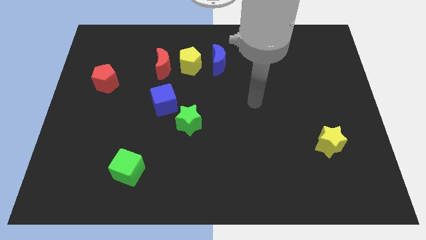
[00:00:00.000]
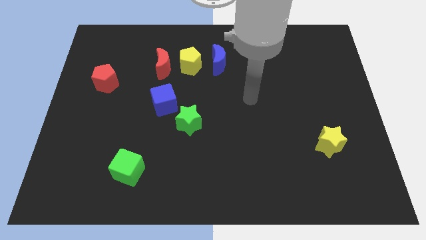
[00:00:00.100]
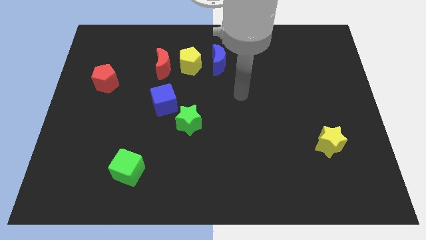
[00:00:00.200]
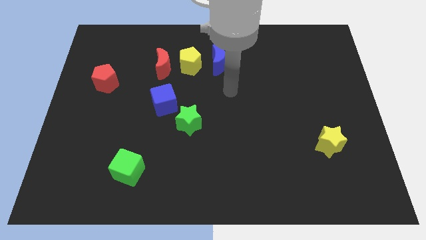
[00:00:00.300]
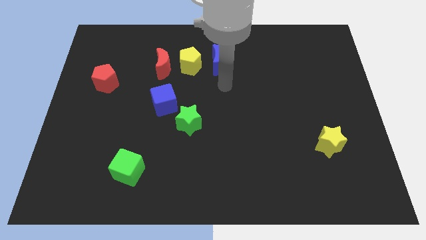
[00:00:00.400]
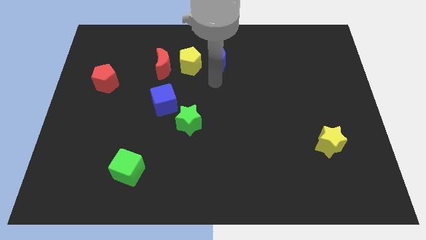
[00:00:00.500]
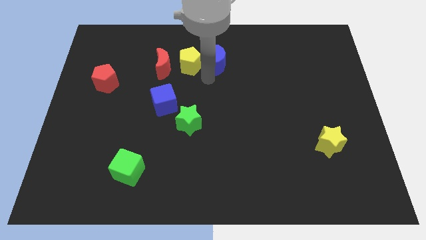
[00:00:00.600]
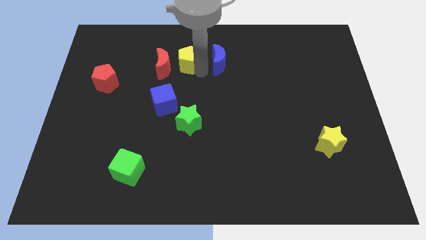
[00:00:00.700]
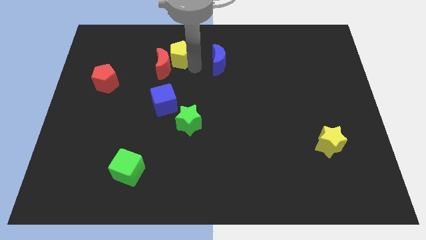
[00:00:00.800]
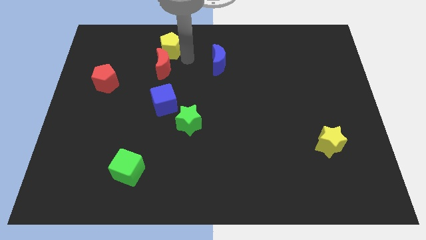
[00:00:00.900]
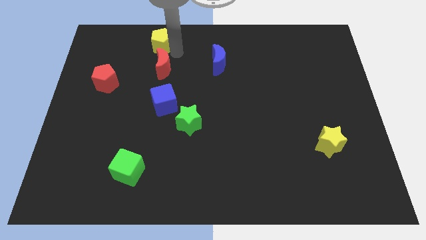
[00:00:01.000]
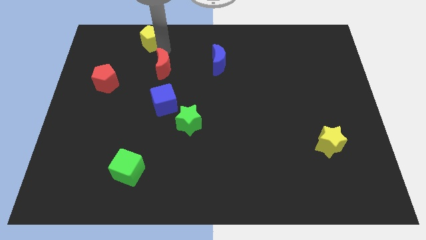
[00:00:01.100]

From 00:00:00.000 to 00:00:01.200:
pull the red moon apart from the yellow pentagon

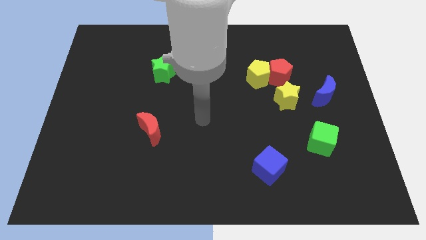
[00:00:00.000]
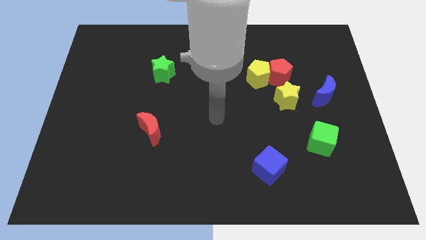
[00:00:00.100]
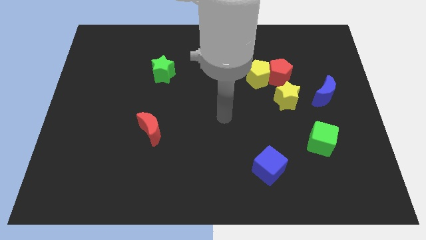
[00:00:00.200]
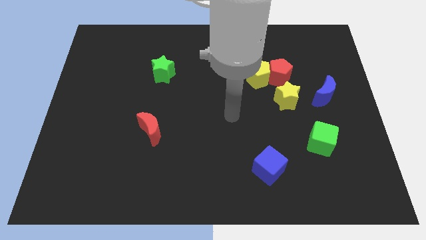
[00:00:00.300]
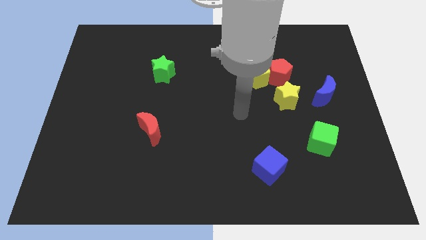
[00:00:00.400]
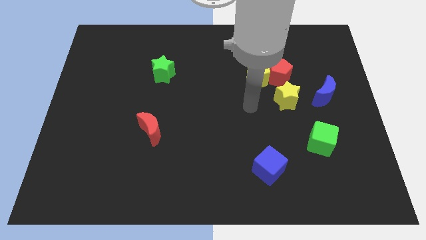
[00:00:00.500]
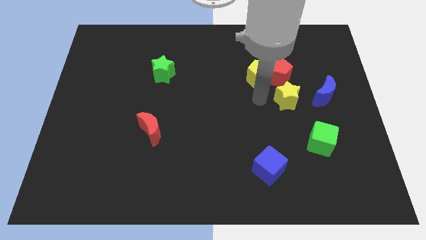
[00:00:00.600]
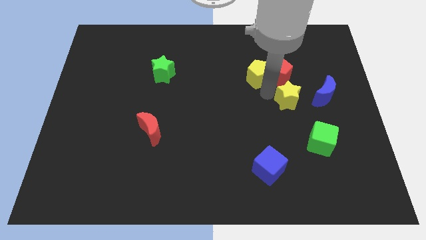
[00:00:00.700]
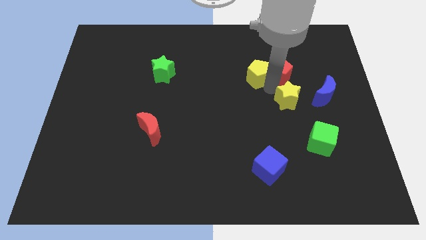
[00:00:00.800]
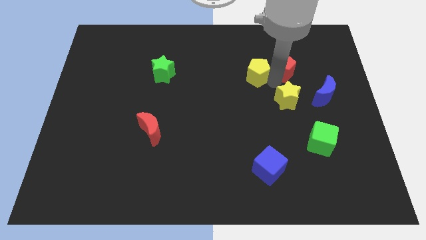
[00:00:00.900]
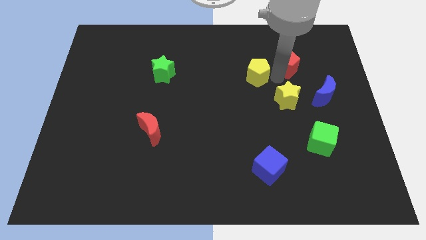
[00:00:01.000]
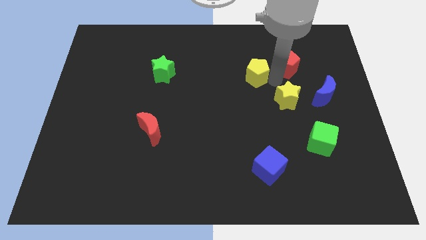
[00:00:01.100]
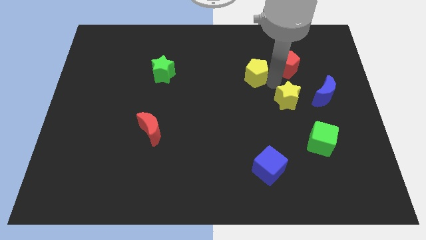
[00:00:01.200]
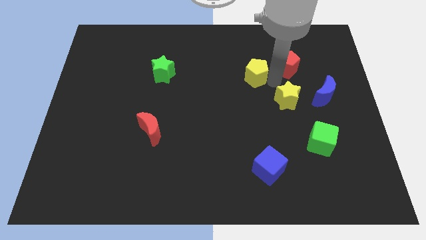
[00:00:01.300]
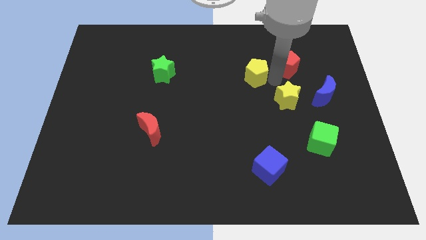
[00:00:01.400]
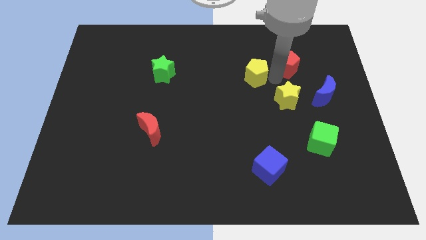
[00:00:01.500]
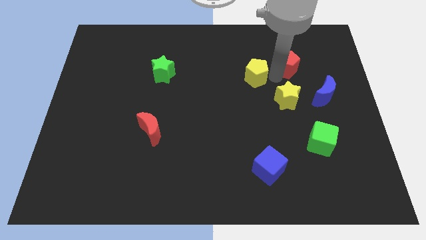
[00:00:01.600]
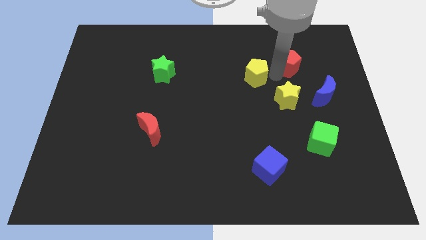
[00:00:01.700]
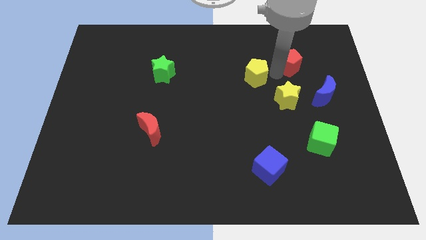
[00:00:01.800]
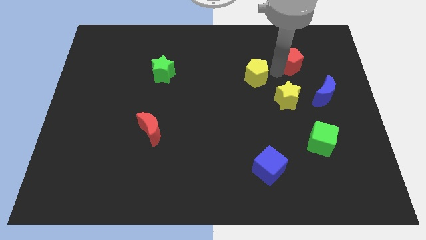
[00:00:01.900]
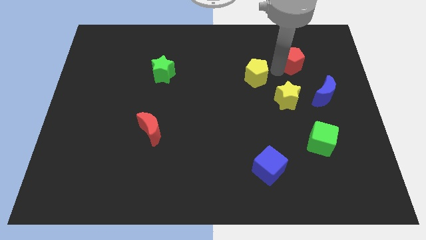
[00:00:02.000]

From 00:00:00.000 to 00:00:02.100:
pull the red pentagon apart from the yellow pentagon and yellow star

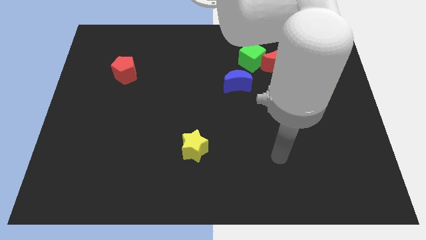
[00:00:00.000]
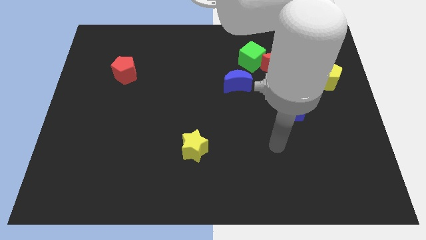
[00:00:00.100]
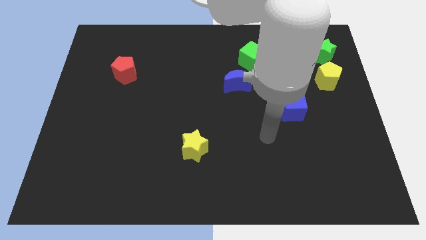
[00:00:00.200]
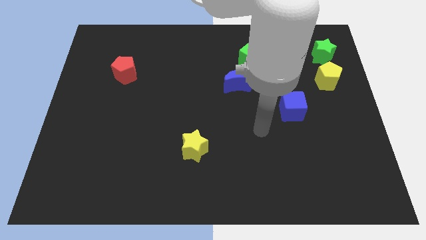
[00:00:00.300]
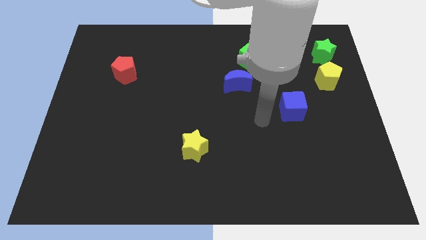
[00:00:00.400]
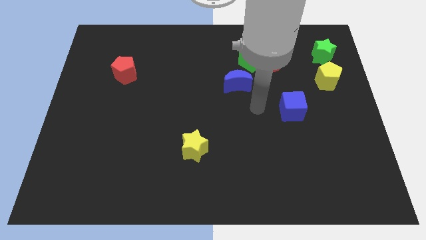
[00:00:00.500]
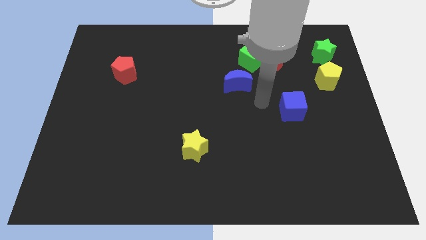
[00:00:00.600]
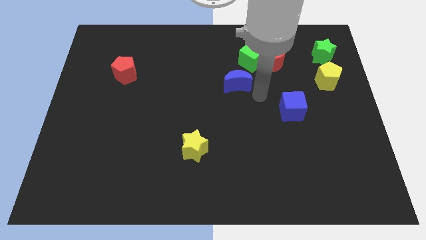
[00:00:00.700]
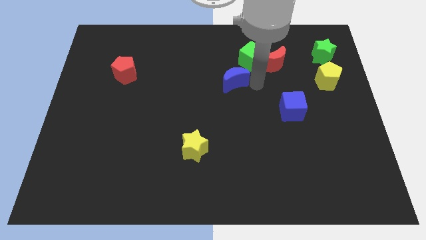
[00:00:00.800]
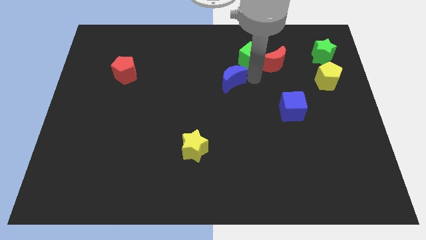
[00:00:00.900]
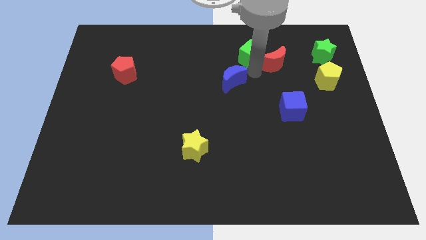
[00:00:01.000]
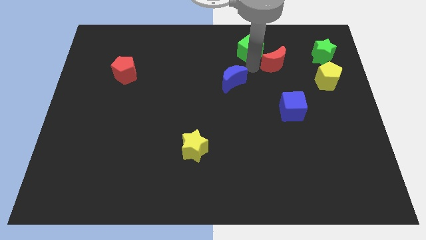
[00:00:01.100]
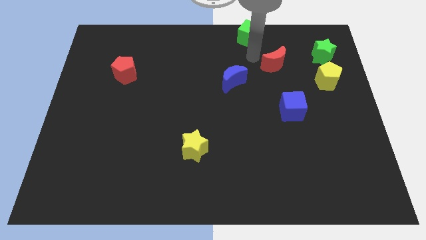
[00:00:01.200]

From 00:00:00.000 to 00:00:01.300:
pull the red moon apart from the green cube

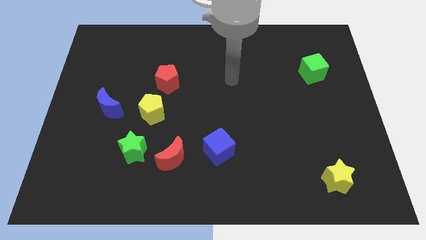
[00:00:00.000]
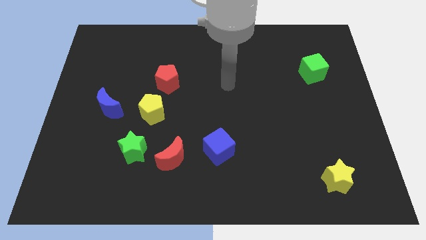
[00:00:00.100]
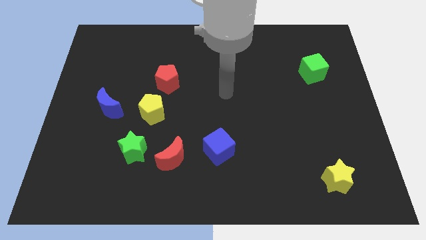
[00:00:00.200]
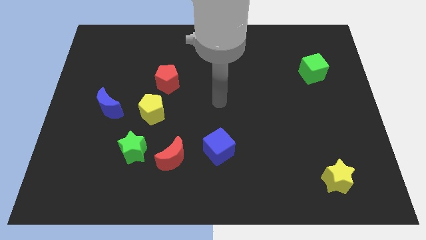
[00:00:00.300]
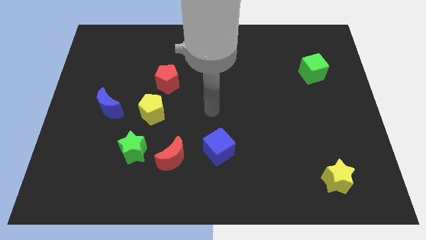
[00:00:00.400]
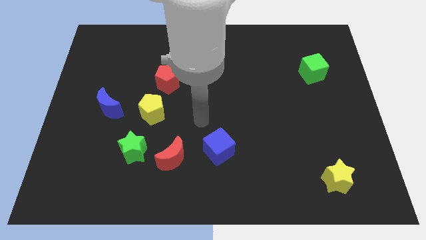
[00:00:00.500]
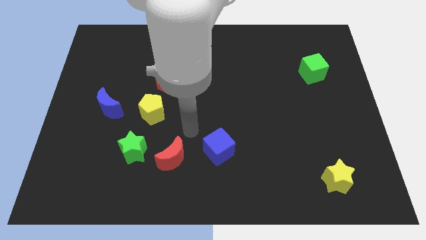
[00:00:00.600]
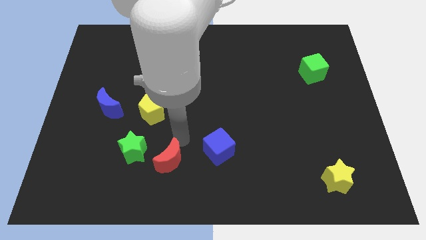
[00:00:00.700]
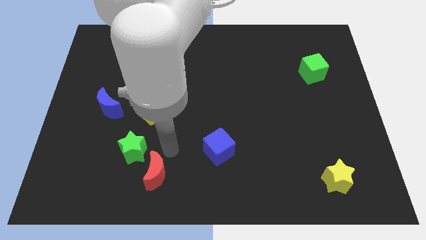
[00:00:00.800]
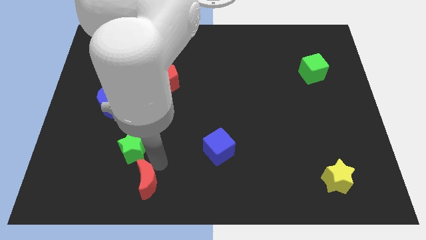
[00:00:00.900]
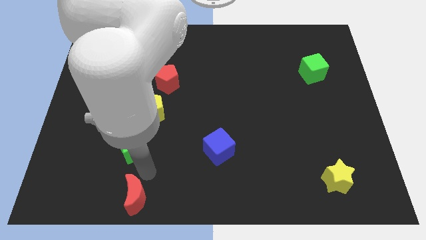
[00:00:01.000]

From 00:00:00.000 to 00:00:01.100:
pull the green star apart from the red moon

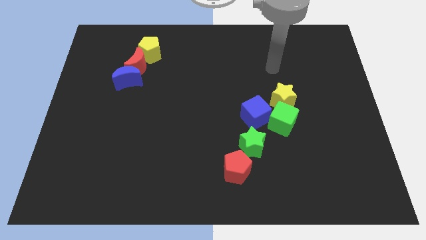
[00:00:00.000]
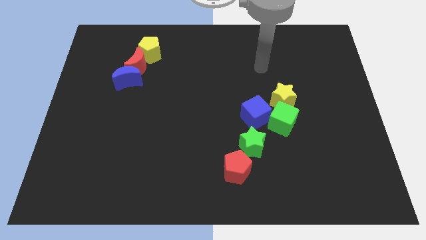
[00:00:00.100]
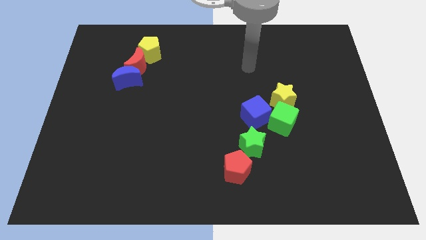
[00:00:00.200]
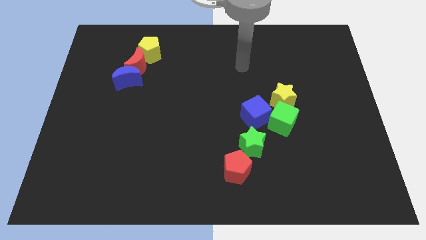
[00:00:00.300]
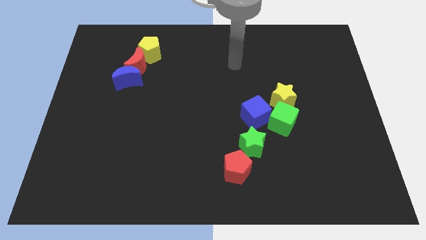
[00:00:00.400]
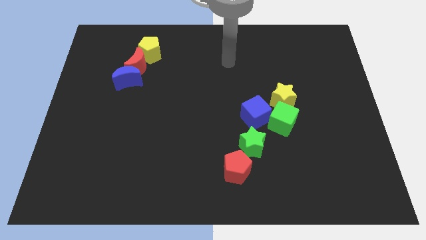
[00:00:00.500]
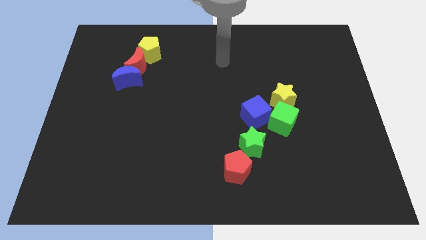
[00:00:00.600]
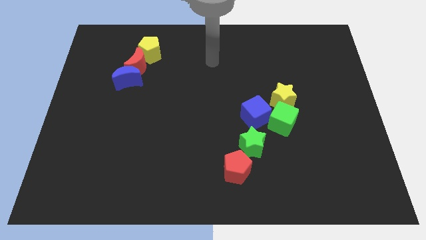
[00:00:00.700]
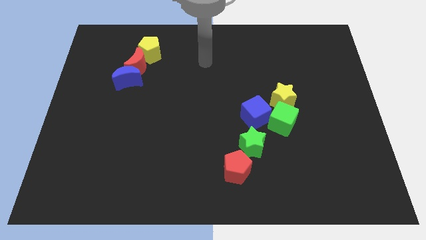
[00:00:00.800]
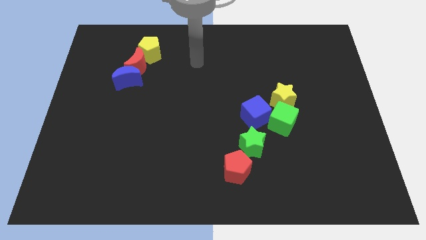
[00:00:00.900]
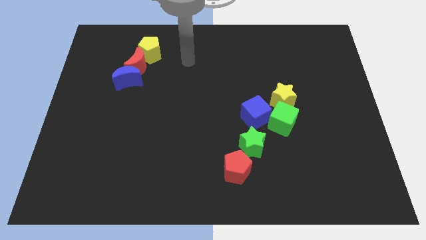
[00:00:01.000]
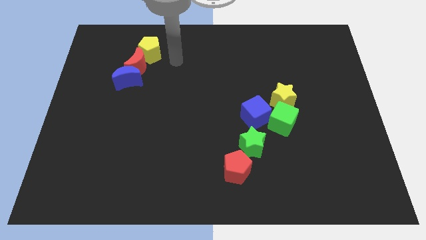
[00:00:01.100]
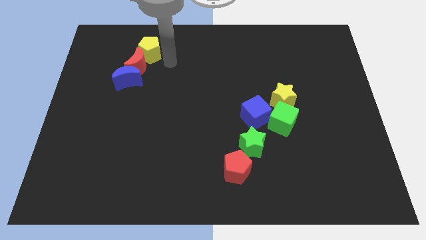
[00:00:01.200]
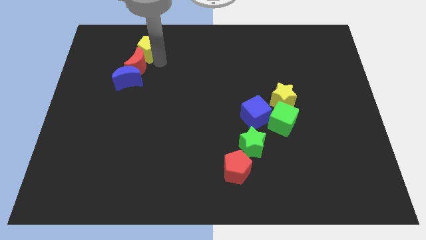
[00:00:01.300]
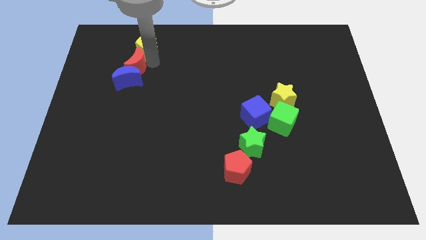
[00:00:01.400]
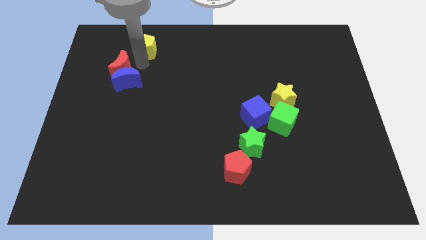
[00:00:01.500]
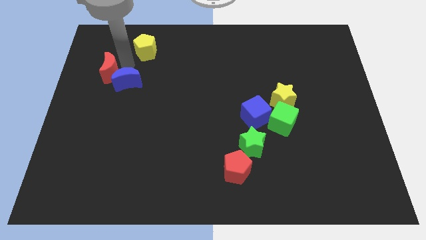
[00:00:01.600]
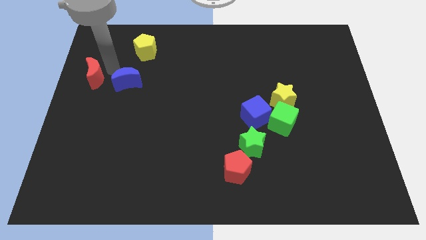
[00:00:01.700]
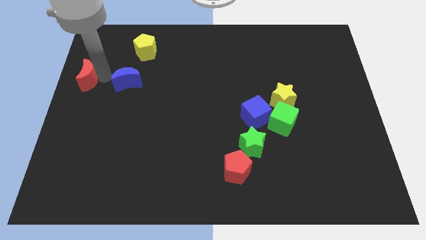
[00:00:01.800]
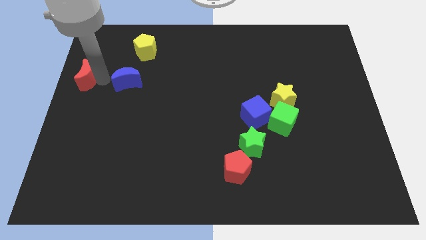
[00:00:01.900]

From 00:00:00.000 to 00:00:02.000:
pull the blue moon apart from the red moon

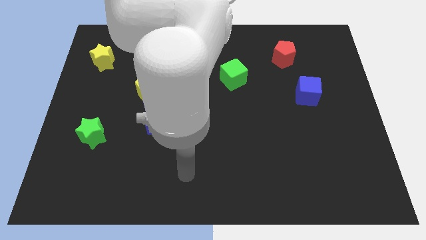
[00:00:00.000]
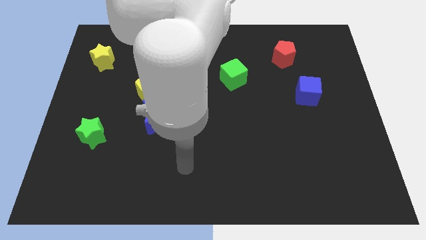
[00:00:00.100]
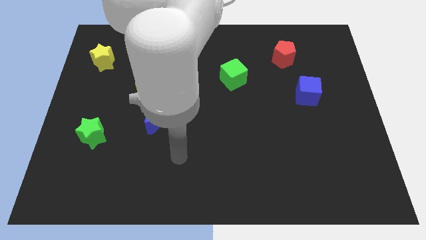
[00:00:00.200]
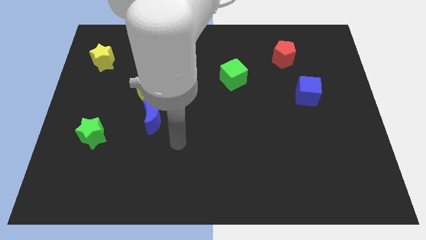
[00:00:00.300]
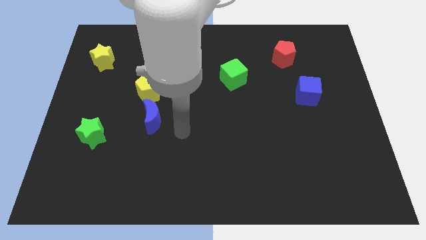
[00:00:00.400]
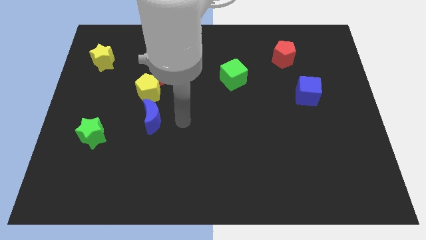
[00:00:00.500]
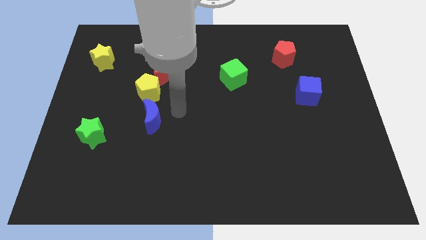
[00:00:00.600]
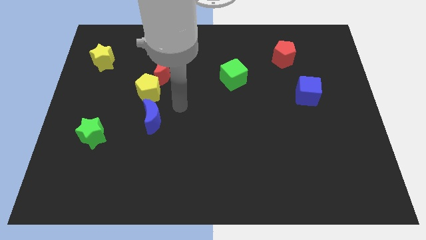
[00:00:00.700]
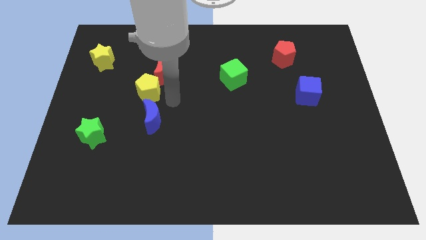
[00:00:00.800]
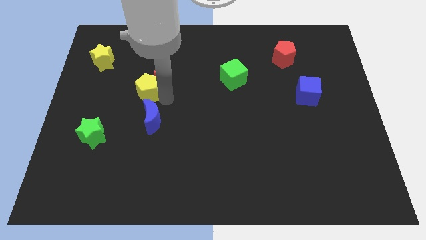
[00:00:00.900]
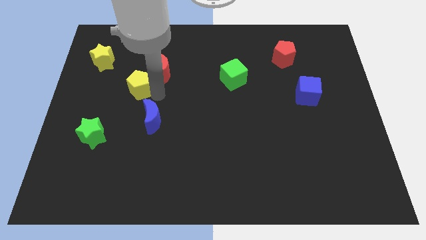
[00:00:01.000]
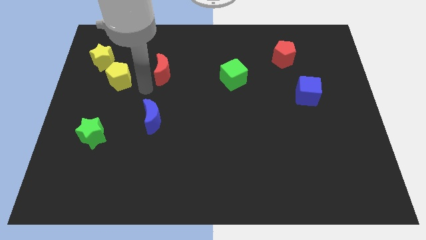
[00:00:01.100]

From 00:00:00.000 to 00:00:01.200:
separate the red moon from the yellow pentagon

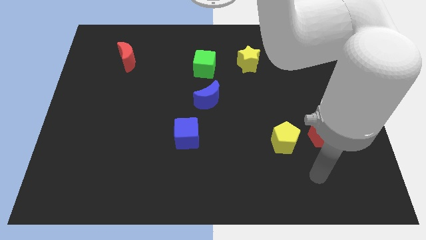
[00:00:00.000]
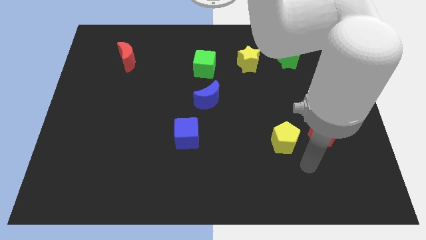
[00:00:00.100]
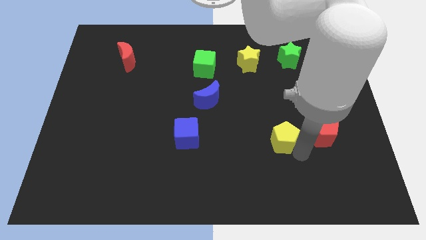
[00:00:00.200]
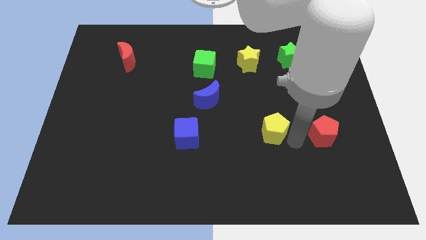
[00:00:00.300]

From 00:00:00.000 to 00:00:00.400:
separate the red pentagon from the yellow pentagon
